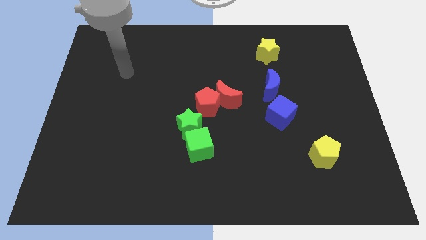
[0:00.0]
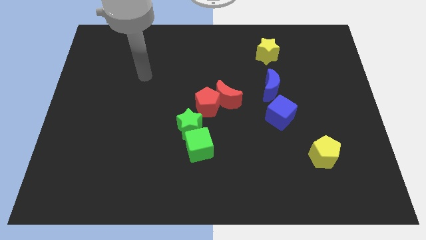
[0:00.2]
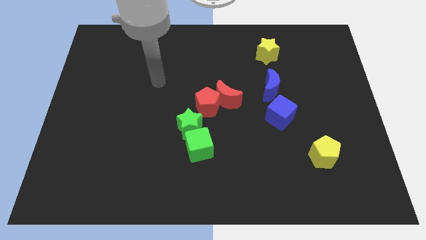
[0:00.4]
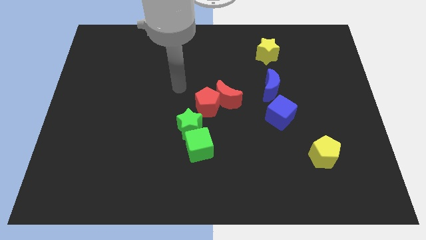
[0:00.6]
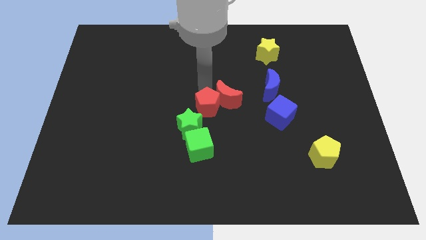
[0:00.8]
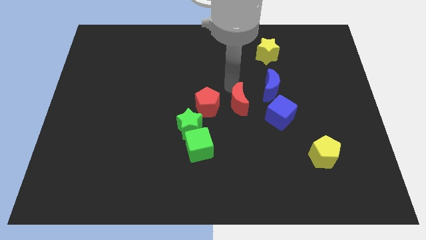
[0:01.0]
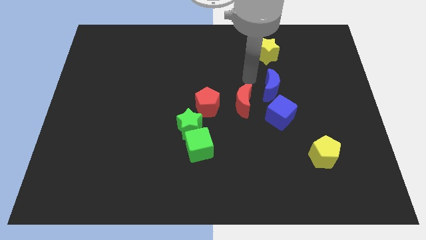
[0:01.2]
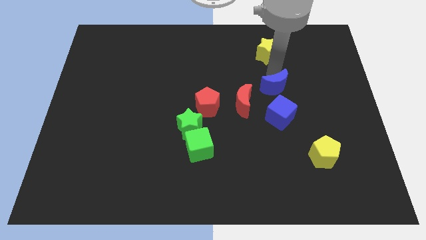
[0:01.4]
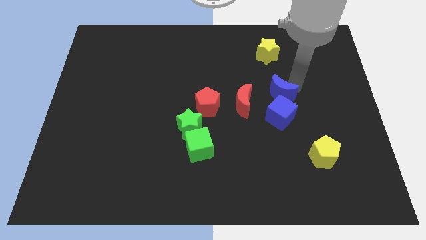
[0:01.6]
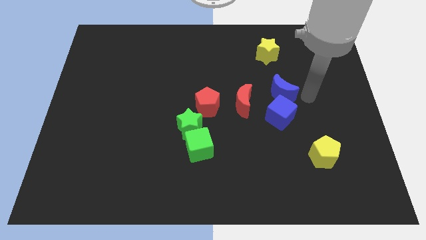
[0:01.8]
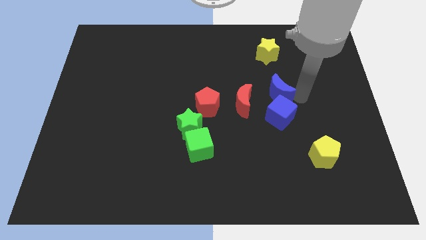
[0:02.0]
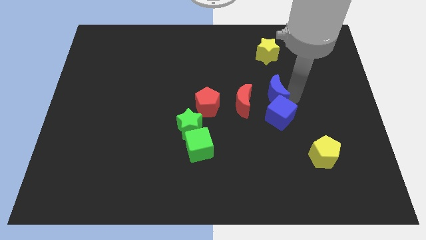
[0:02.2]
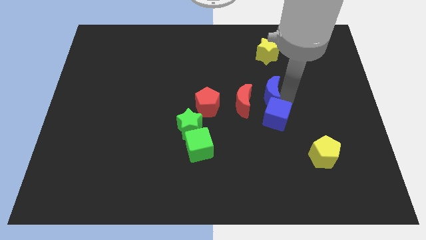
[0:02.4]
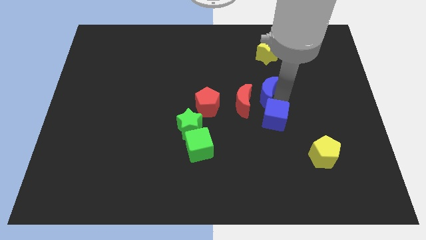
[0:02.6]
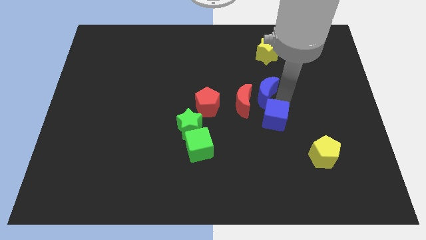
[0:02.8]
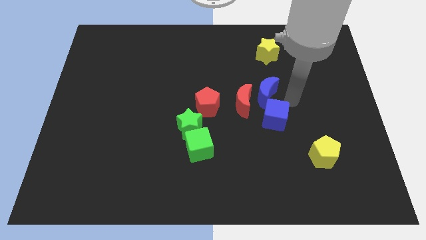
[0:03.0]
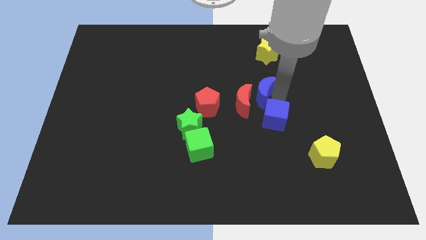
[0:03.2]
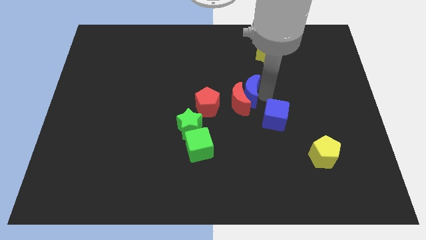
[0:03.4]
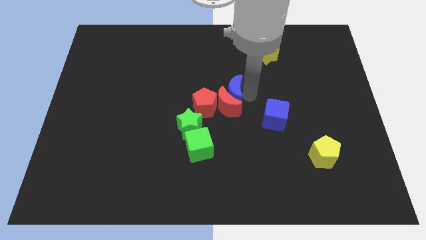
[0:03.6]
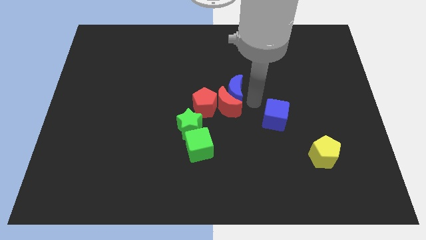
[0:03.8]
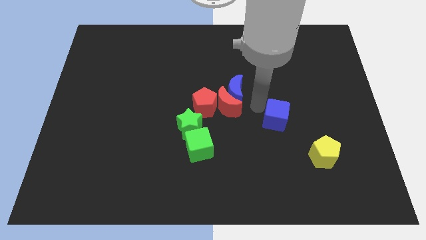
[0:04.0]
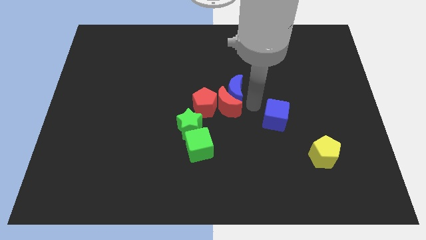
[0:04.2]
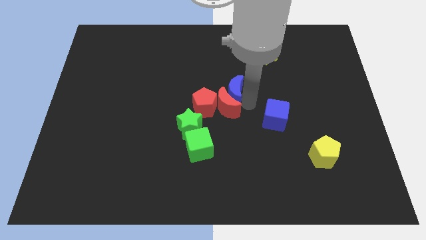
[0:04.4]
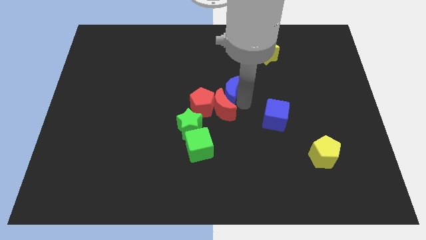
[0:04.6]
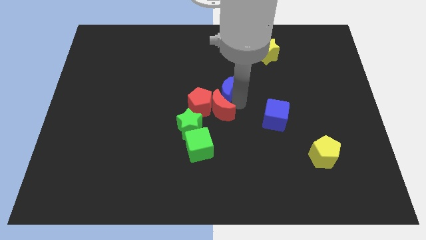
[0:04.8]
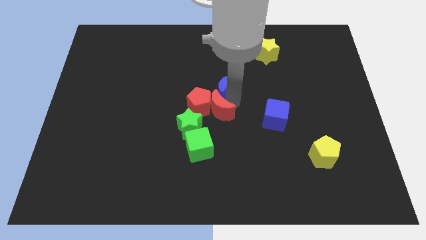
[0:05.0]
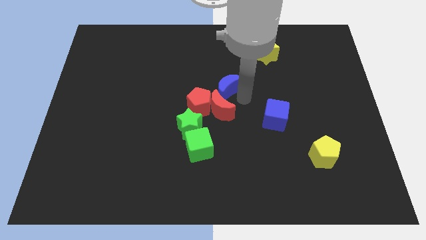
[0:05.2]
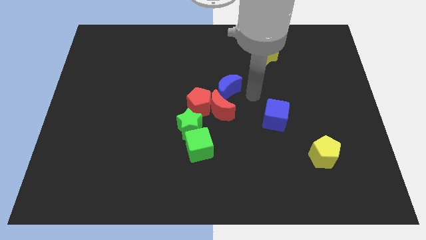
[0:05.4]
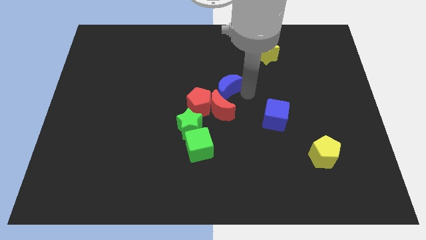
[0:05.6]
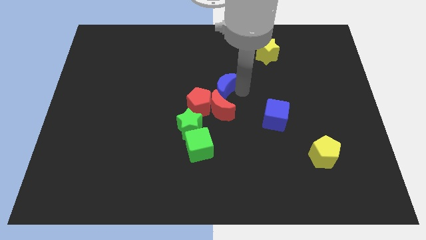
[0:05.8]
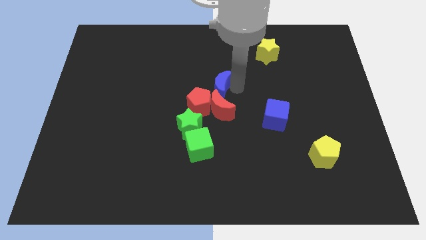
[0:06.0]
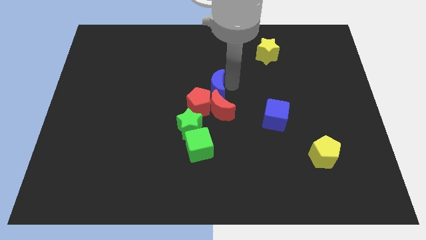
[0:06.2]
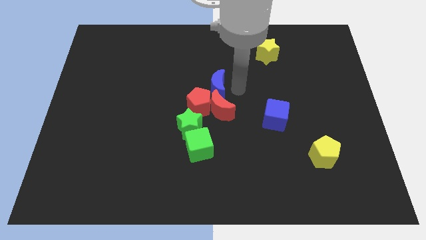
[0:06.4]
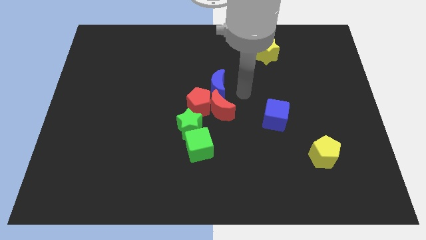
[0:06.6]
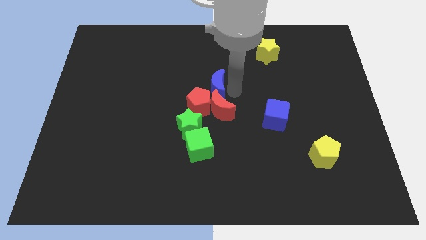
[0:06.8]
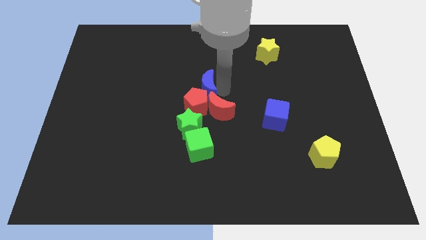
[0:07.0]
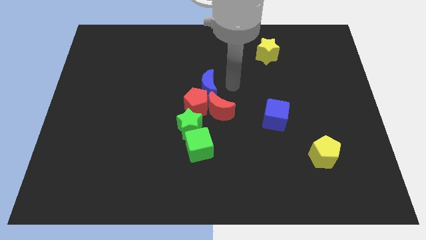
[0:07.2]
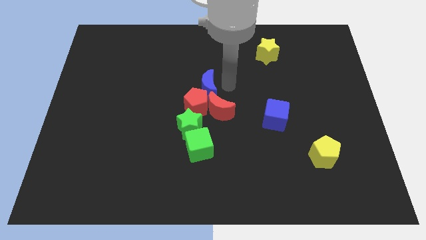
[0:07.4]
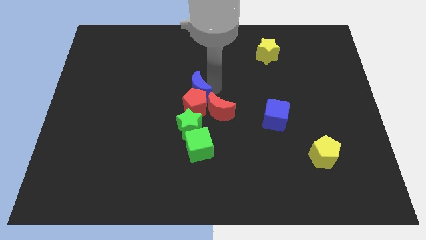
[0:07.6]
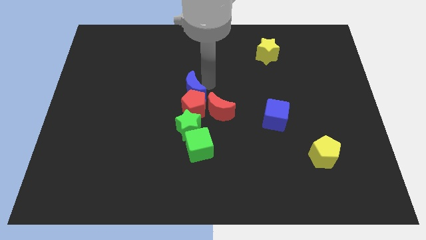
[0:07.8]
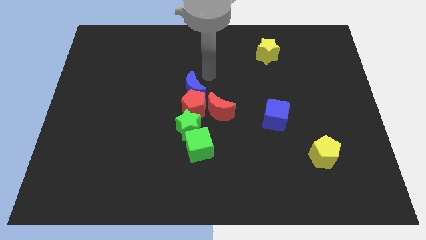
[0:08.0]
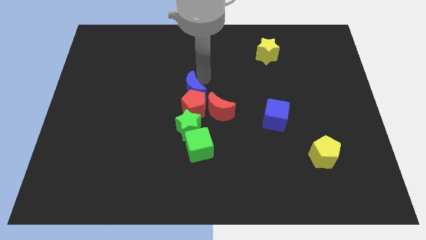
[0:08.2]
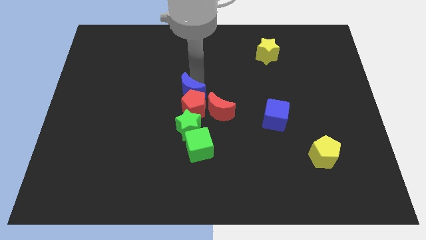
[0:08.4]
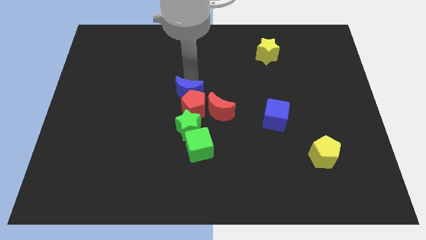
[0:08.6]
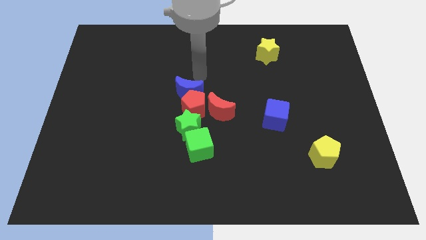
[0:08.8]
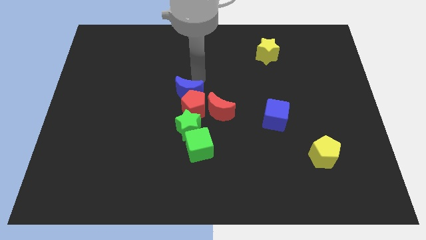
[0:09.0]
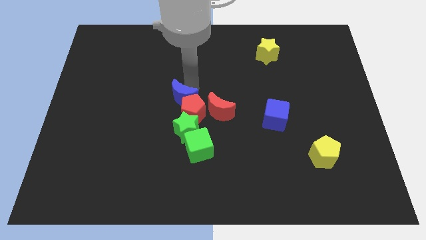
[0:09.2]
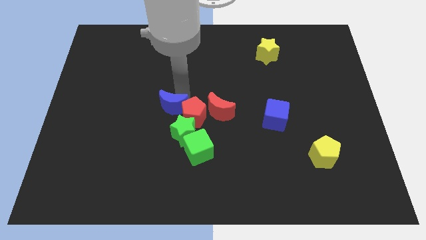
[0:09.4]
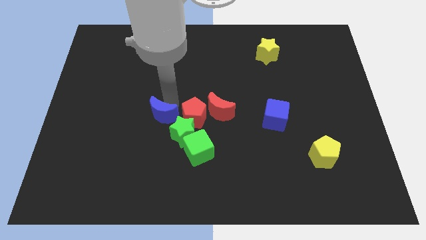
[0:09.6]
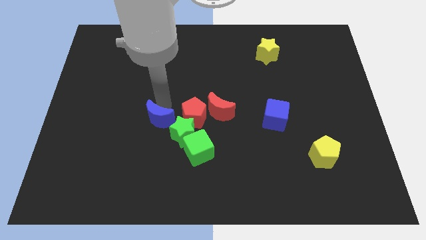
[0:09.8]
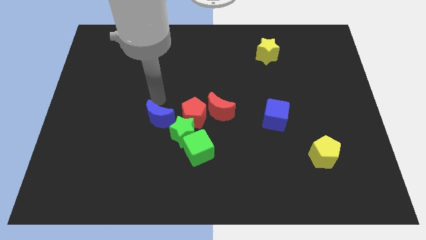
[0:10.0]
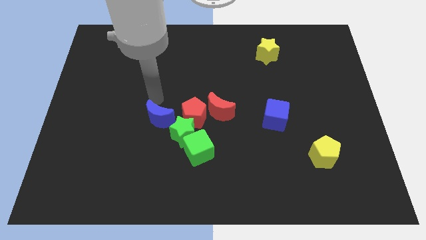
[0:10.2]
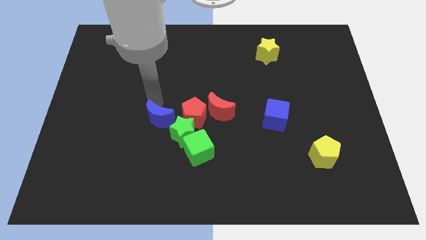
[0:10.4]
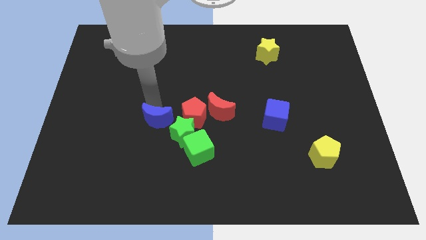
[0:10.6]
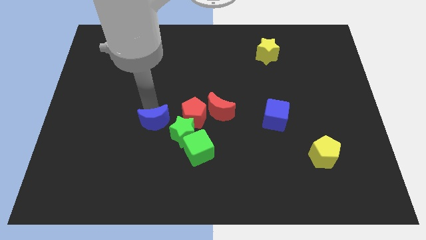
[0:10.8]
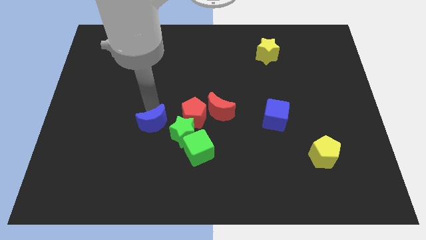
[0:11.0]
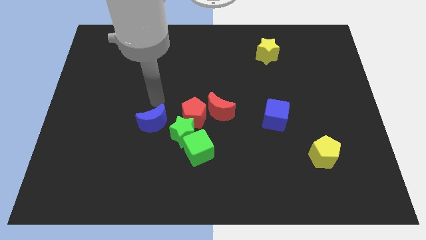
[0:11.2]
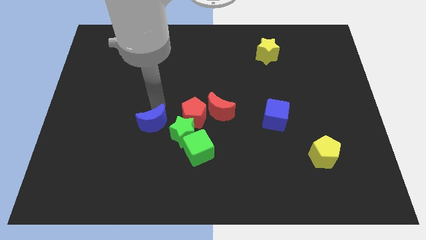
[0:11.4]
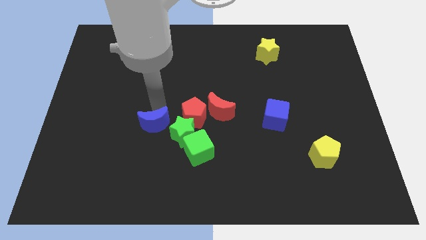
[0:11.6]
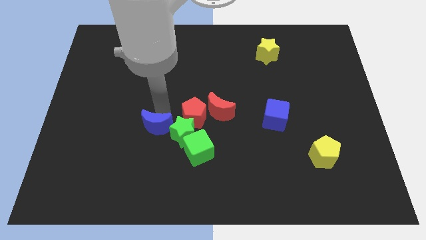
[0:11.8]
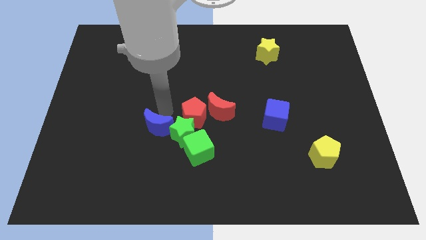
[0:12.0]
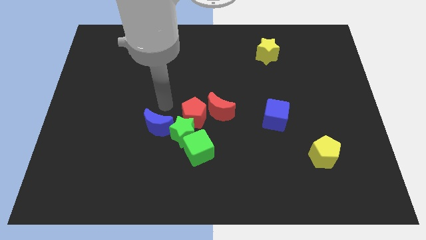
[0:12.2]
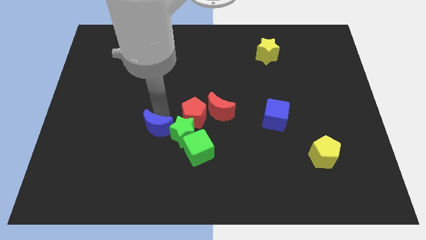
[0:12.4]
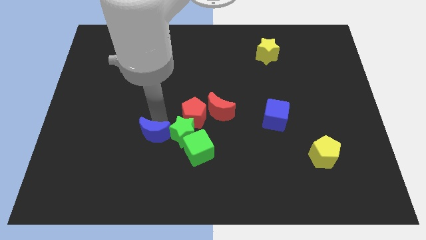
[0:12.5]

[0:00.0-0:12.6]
push the blue moon left of the green cube

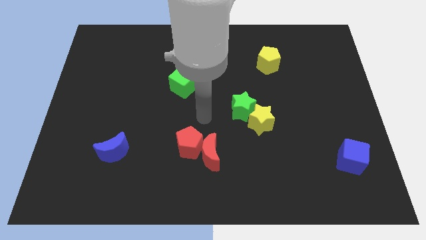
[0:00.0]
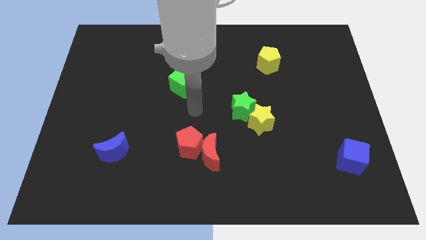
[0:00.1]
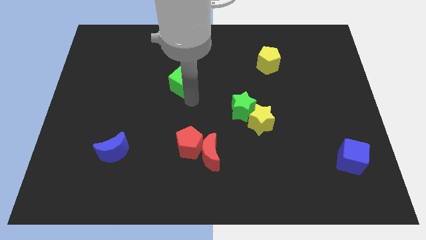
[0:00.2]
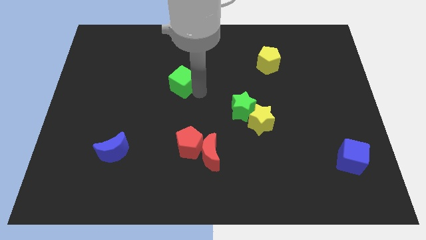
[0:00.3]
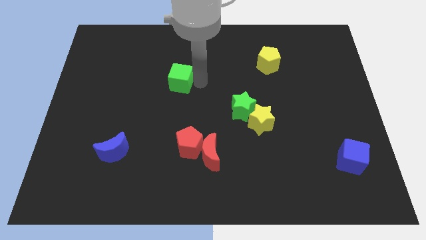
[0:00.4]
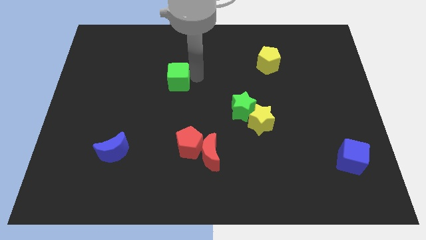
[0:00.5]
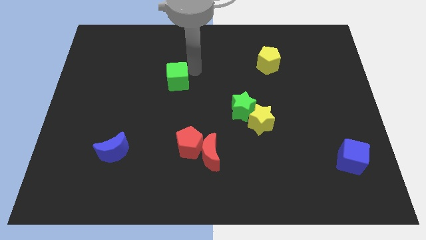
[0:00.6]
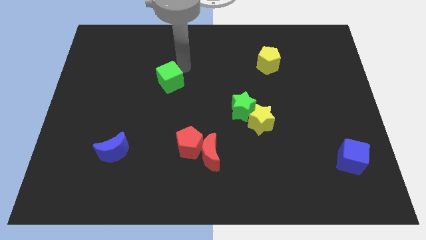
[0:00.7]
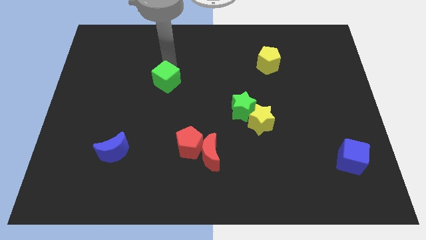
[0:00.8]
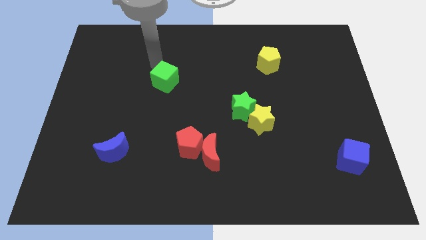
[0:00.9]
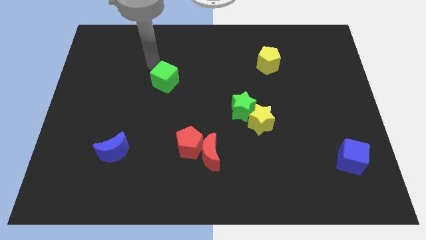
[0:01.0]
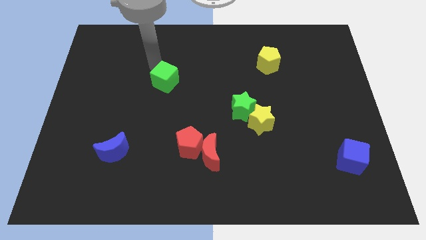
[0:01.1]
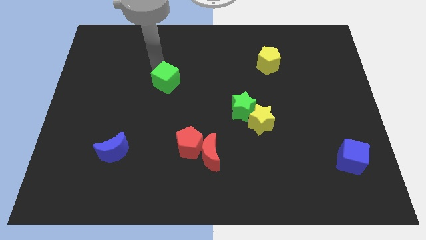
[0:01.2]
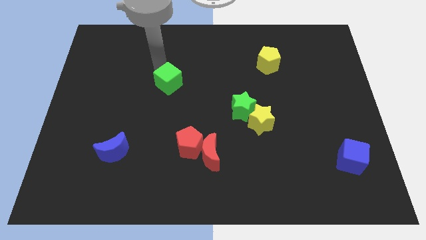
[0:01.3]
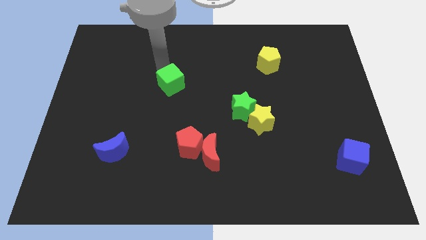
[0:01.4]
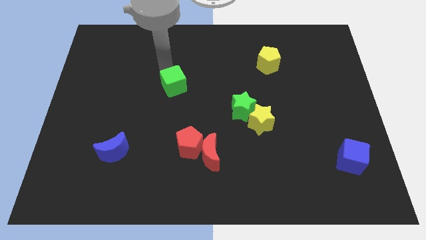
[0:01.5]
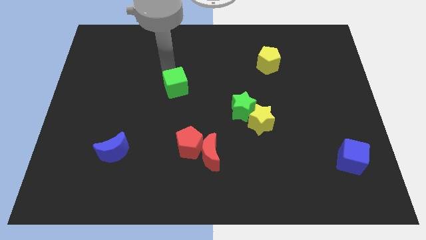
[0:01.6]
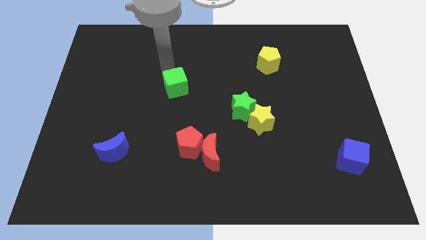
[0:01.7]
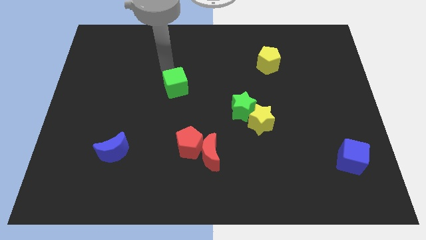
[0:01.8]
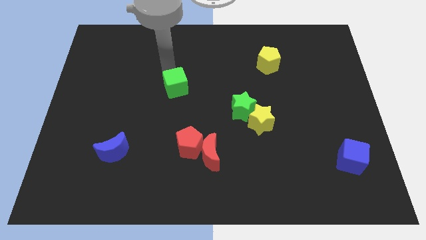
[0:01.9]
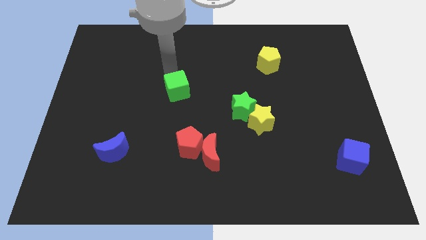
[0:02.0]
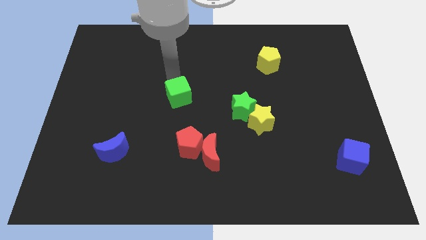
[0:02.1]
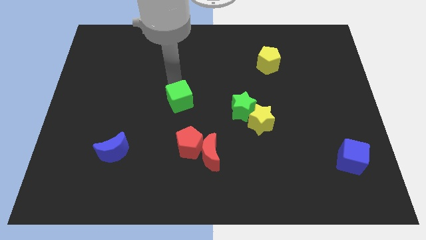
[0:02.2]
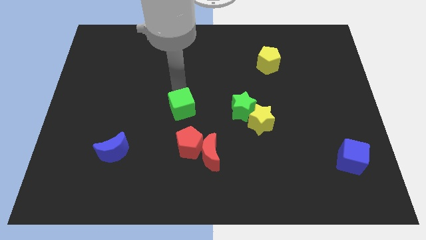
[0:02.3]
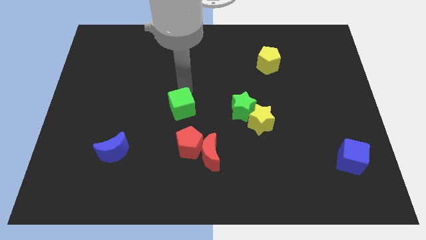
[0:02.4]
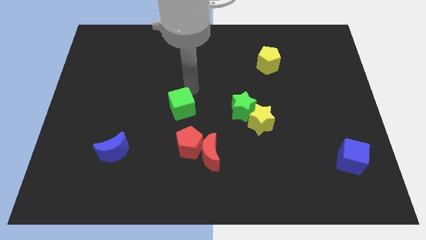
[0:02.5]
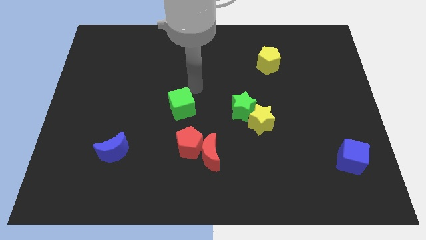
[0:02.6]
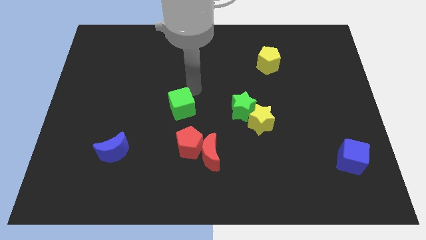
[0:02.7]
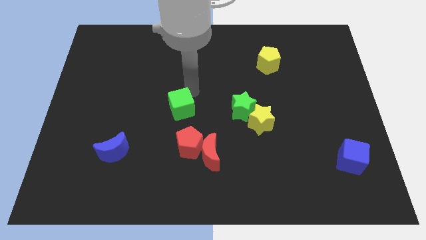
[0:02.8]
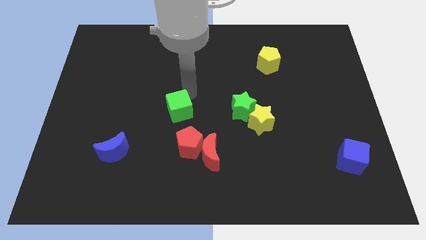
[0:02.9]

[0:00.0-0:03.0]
put the green cube to the top left side of the red pentagon
